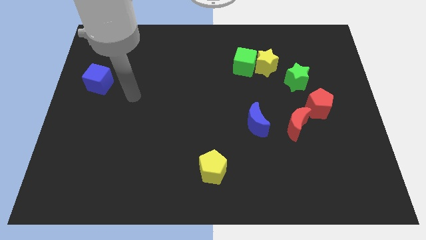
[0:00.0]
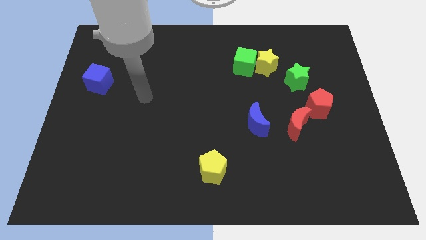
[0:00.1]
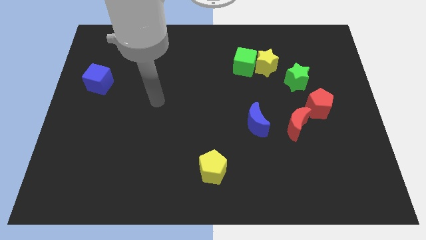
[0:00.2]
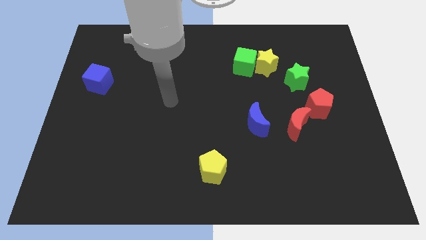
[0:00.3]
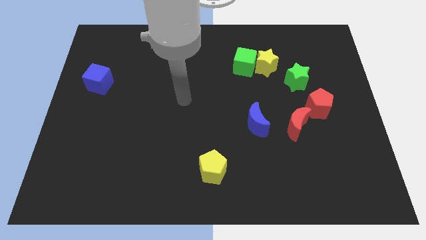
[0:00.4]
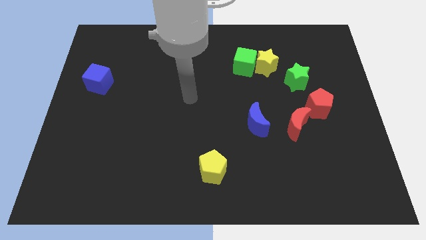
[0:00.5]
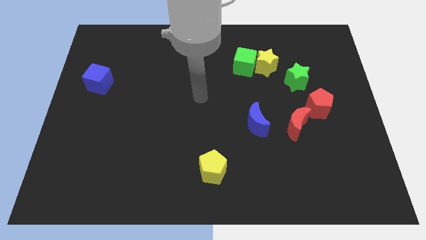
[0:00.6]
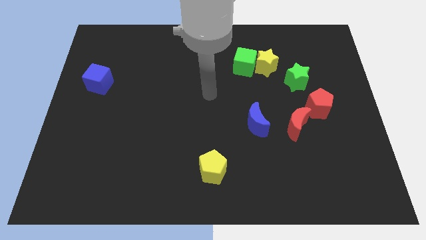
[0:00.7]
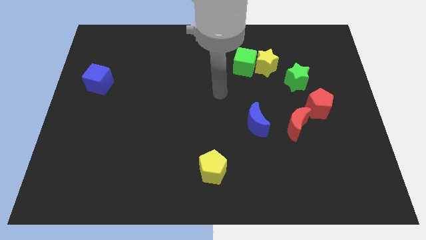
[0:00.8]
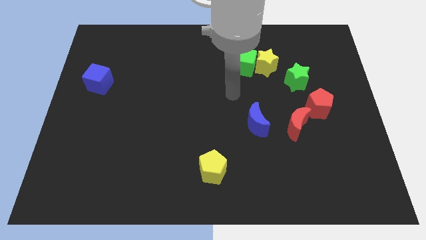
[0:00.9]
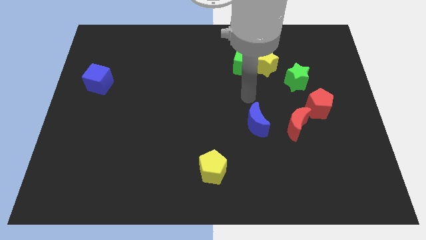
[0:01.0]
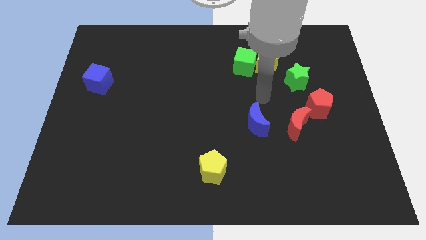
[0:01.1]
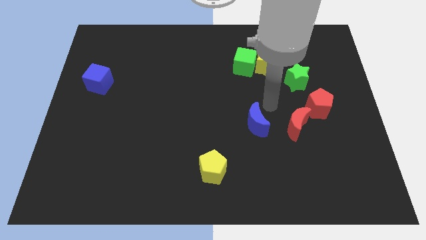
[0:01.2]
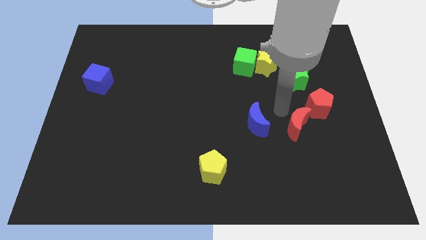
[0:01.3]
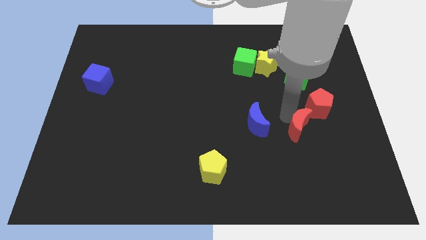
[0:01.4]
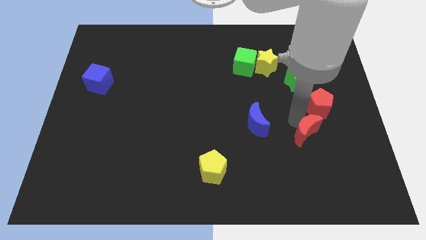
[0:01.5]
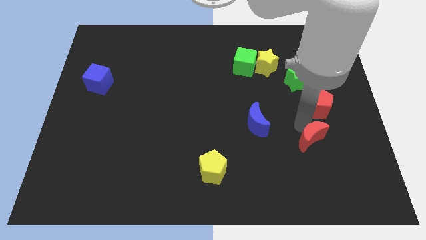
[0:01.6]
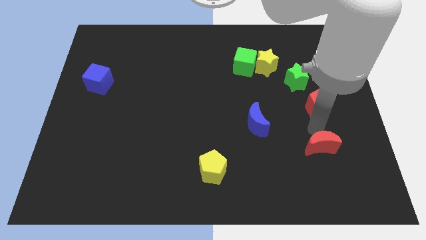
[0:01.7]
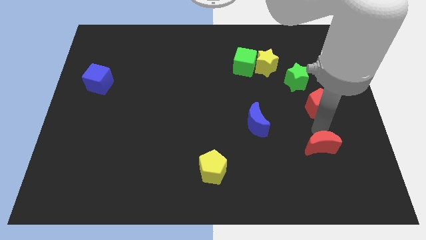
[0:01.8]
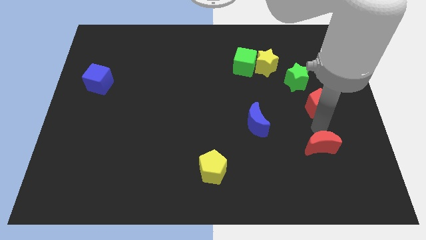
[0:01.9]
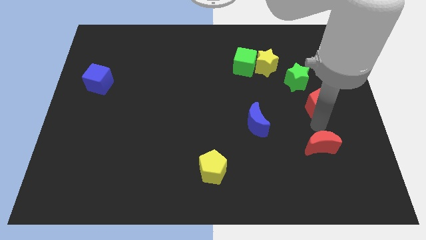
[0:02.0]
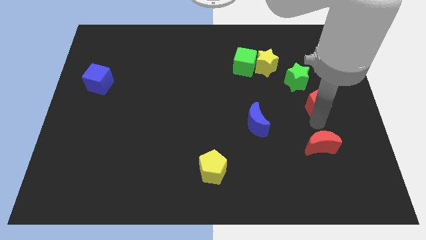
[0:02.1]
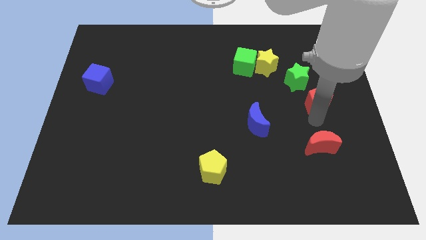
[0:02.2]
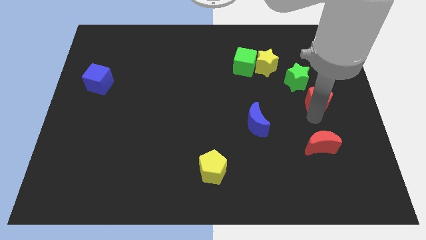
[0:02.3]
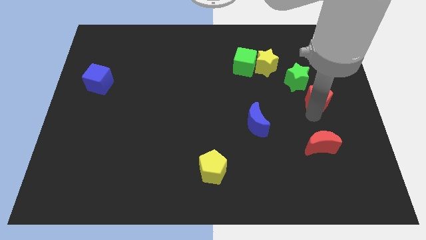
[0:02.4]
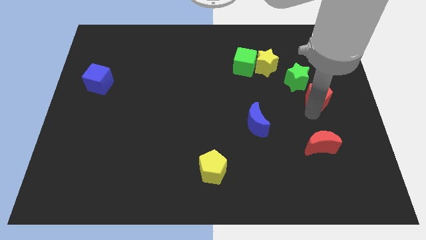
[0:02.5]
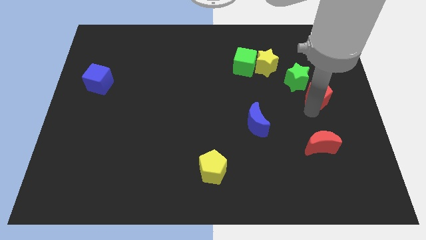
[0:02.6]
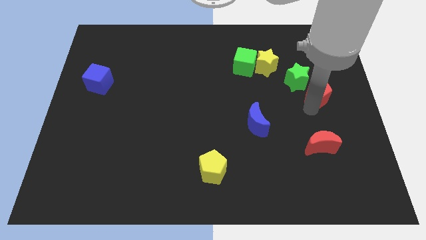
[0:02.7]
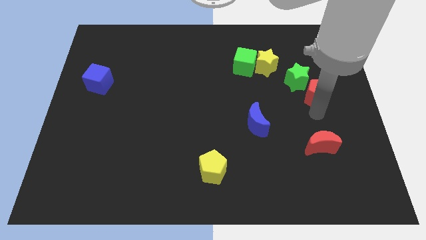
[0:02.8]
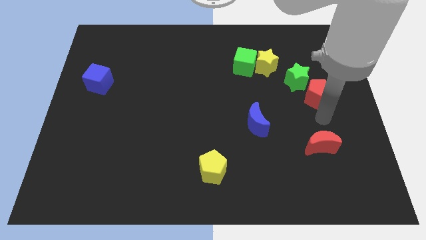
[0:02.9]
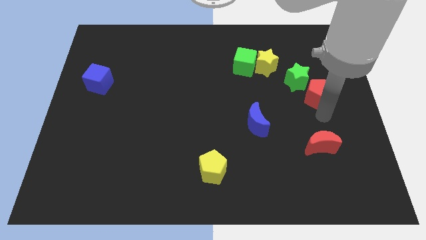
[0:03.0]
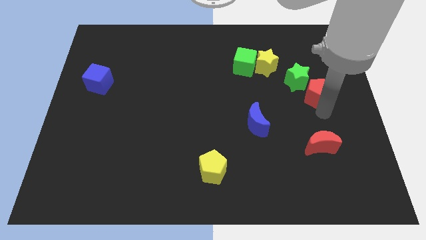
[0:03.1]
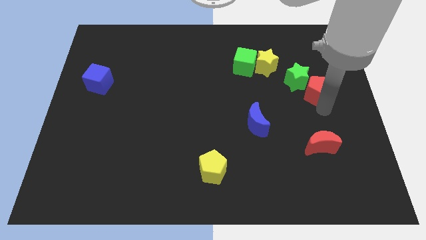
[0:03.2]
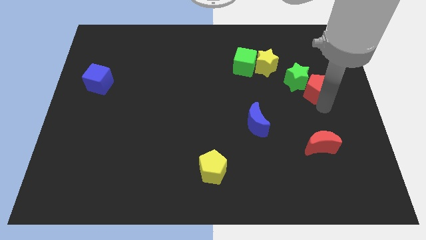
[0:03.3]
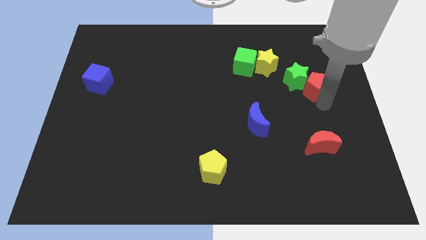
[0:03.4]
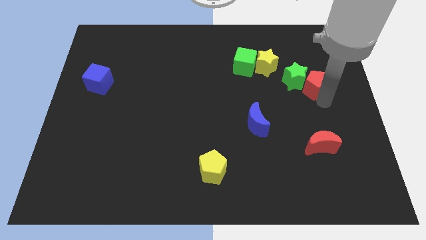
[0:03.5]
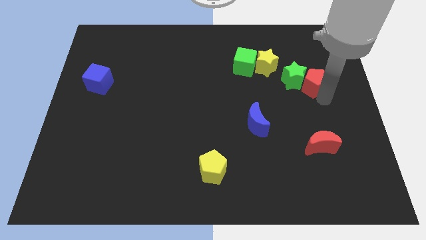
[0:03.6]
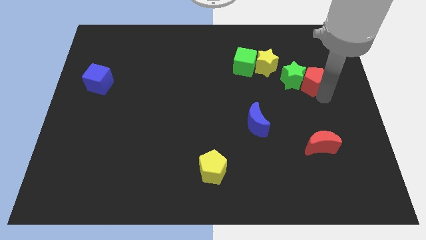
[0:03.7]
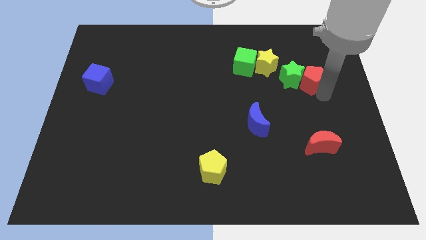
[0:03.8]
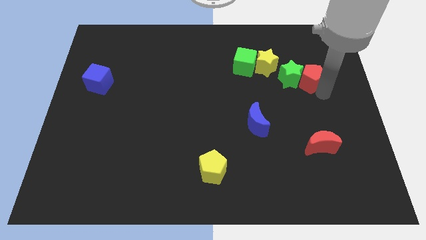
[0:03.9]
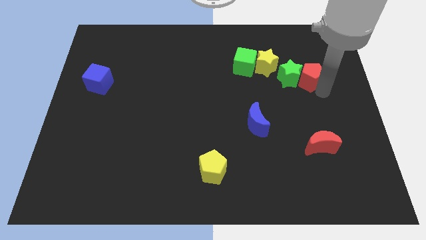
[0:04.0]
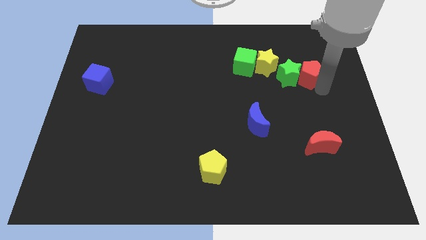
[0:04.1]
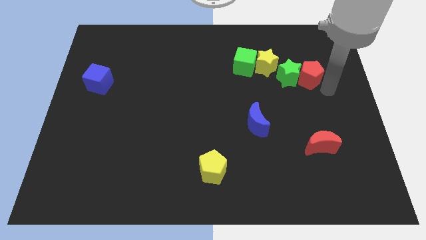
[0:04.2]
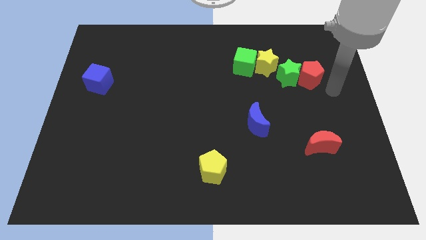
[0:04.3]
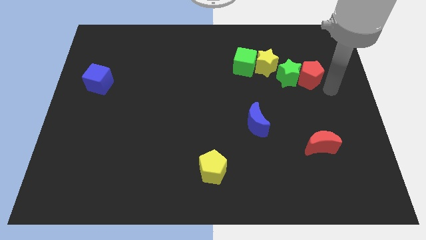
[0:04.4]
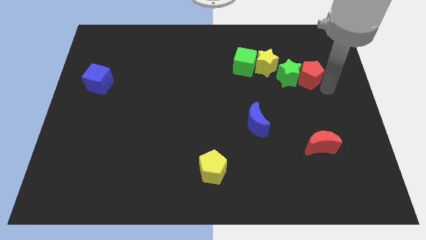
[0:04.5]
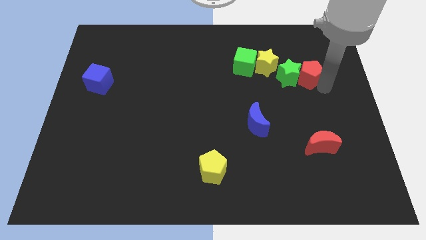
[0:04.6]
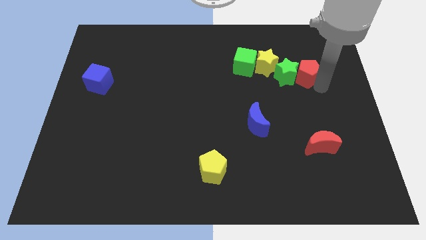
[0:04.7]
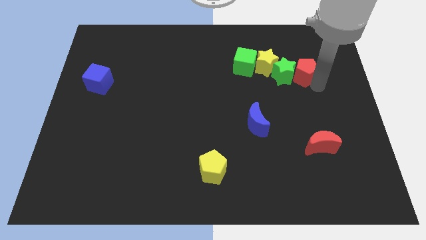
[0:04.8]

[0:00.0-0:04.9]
slide the red pentagon right of the green cube

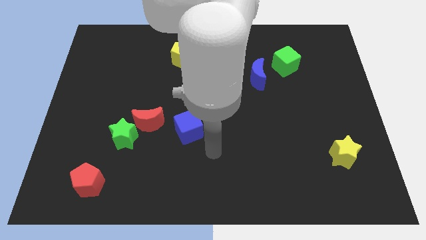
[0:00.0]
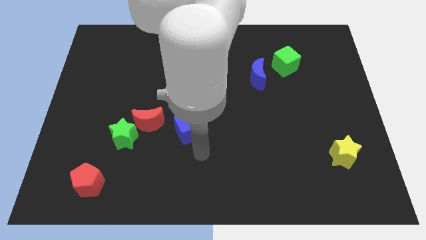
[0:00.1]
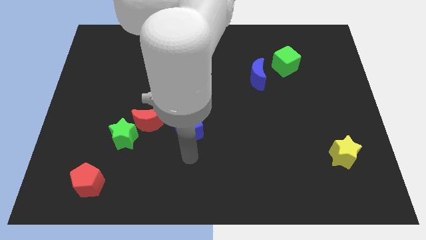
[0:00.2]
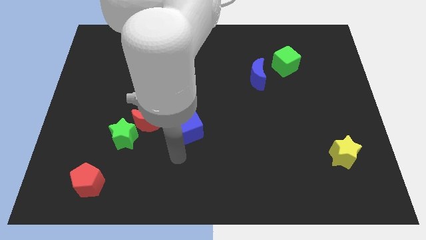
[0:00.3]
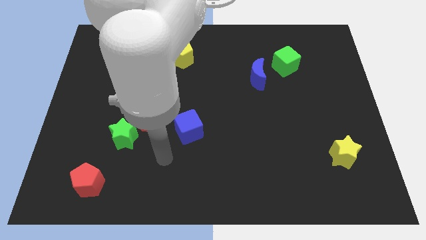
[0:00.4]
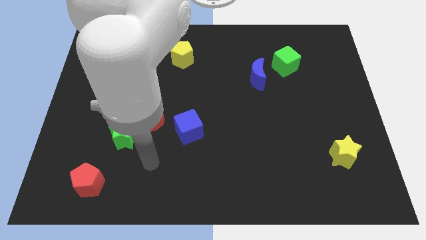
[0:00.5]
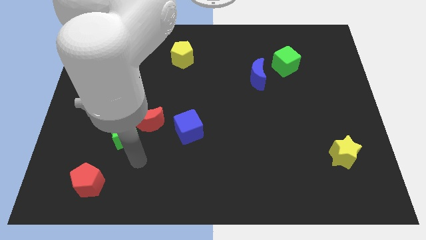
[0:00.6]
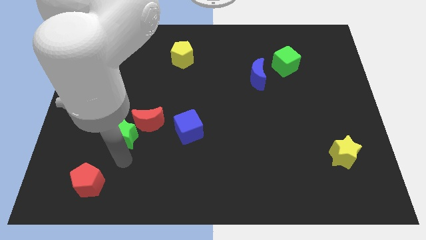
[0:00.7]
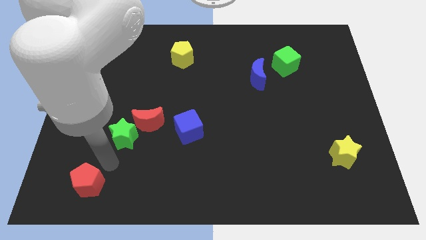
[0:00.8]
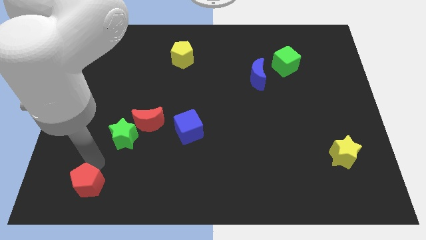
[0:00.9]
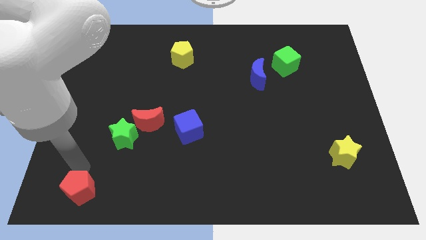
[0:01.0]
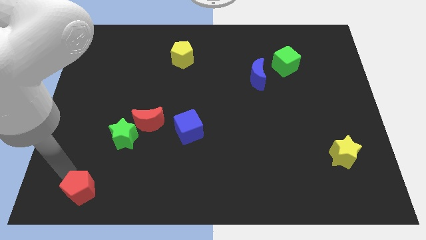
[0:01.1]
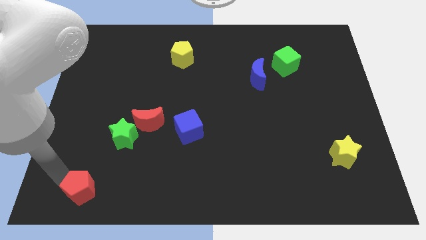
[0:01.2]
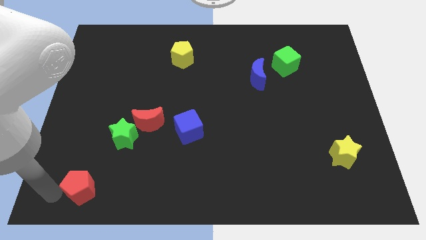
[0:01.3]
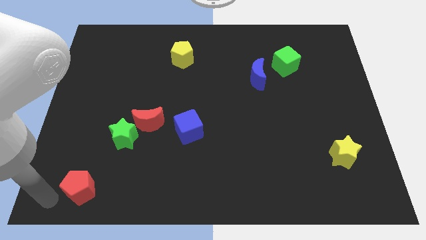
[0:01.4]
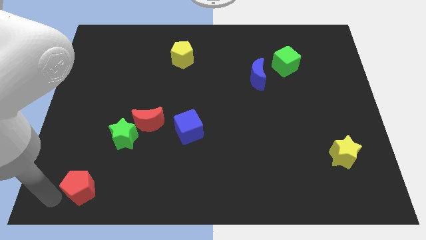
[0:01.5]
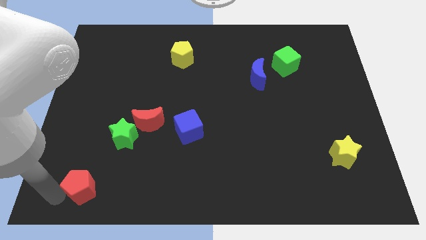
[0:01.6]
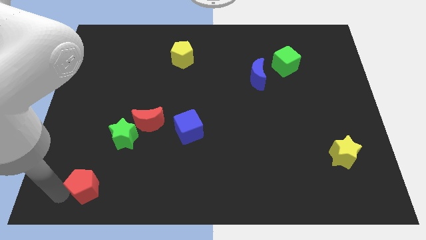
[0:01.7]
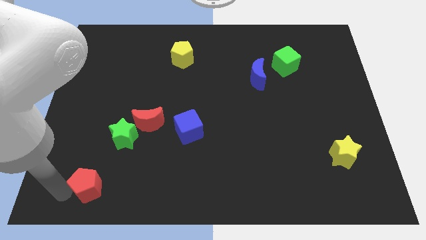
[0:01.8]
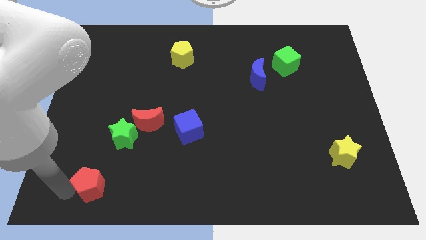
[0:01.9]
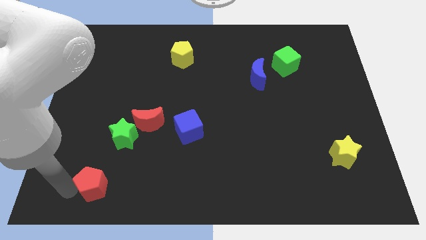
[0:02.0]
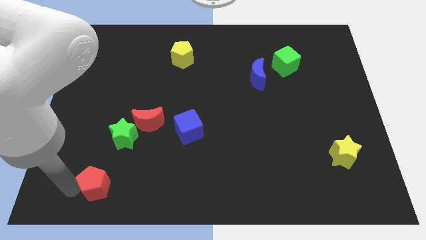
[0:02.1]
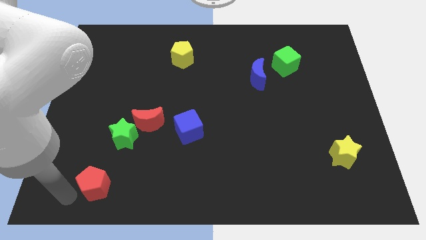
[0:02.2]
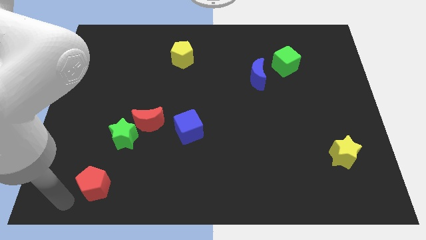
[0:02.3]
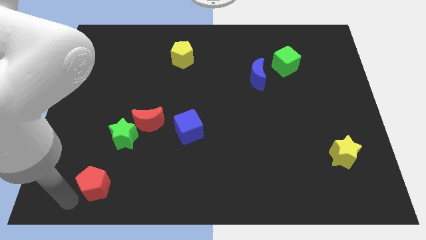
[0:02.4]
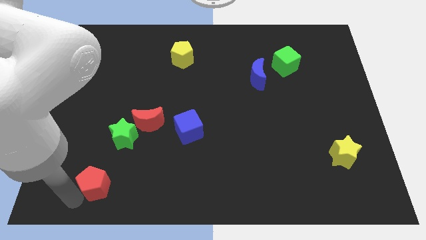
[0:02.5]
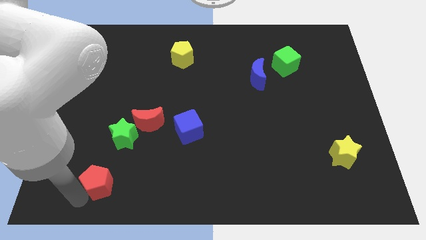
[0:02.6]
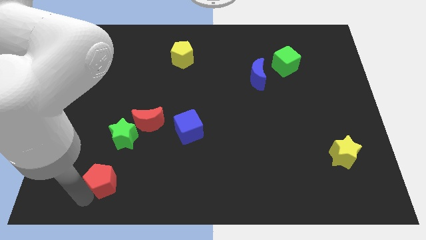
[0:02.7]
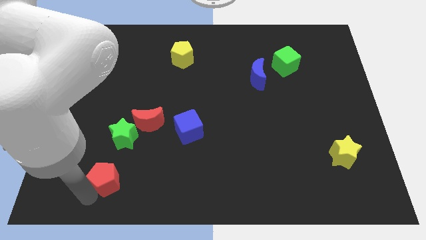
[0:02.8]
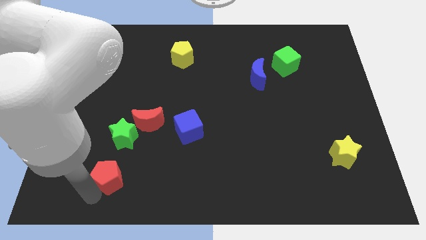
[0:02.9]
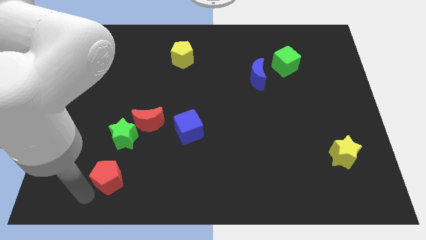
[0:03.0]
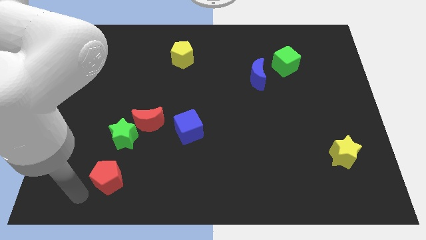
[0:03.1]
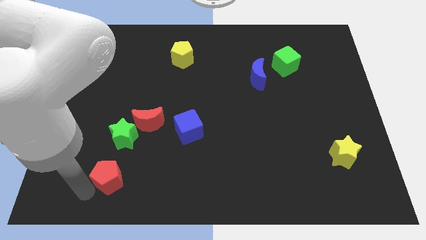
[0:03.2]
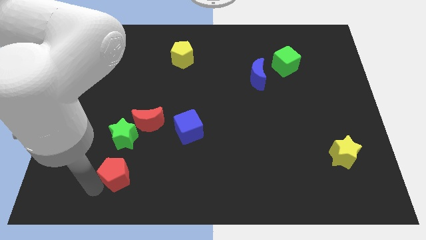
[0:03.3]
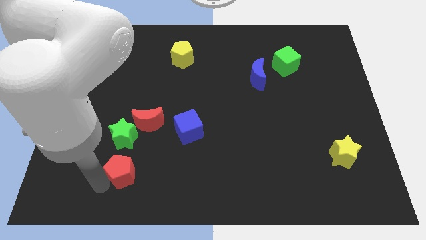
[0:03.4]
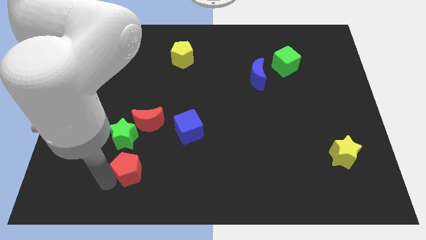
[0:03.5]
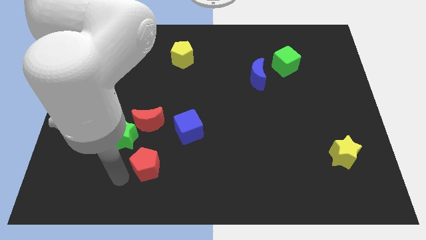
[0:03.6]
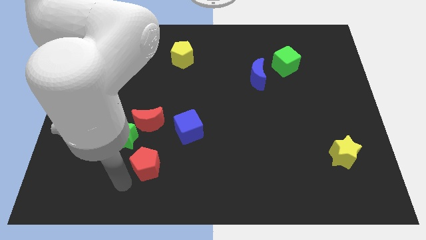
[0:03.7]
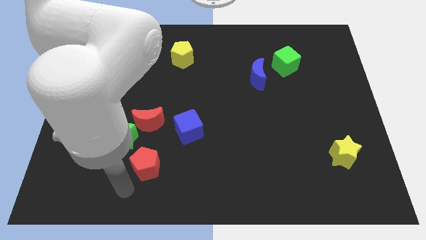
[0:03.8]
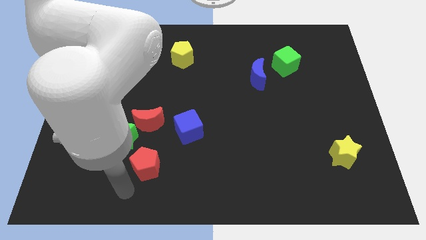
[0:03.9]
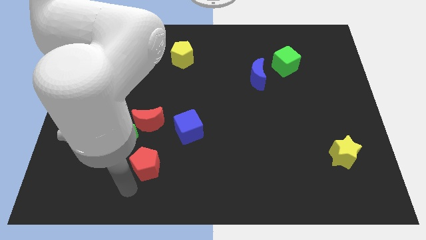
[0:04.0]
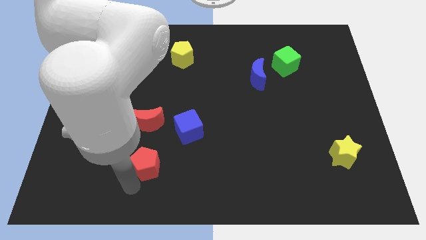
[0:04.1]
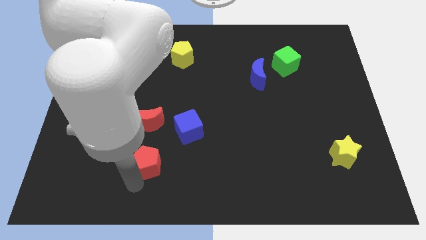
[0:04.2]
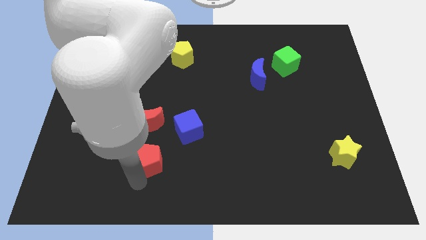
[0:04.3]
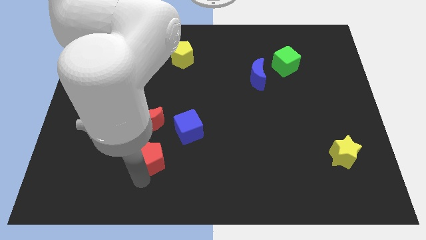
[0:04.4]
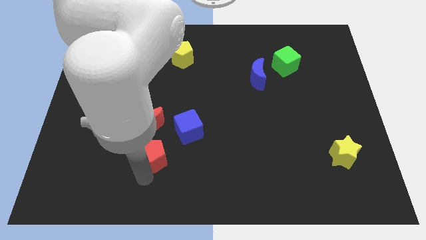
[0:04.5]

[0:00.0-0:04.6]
move the red pentagon to the bottom right side of the red moon
